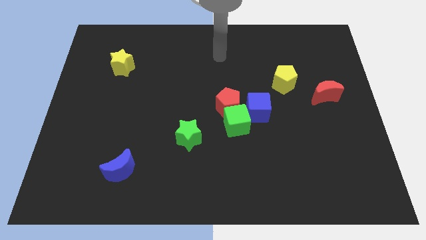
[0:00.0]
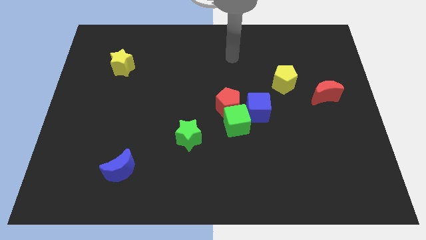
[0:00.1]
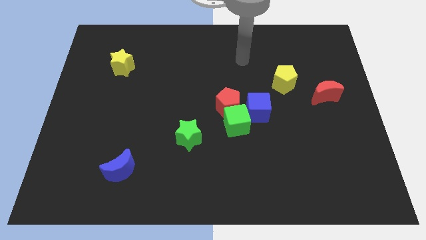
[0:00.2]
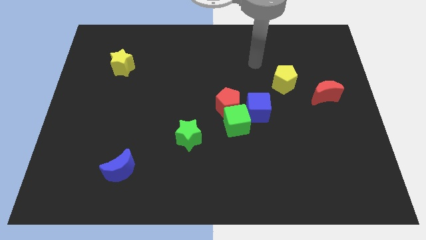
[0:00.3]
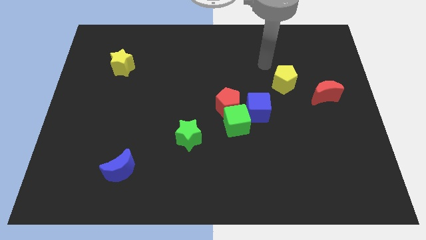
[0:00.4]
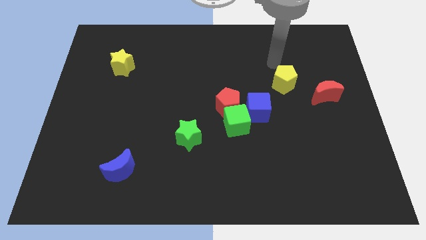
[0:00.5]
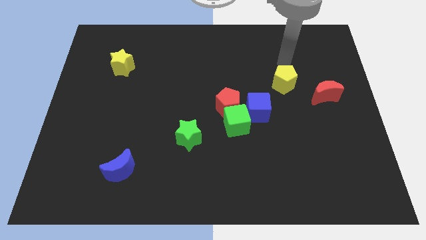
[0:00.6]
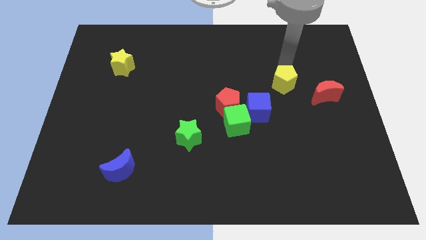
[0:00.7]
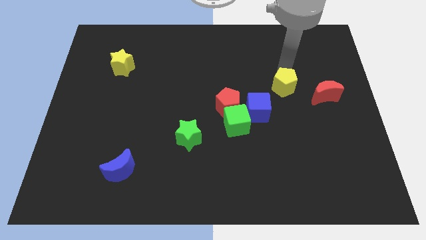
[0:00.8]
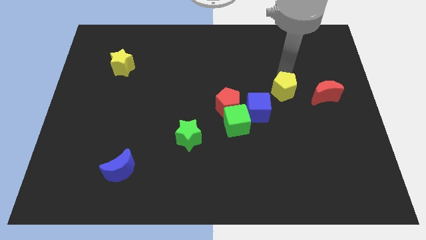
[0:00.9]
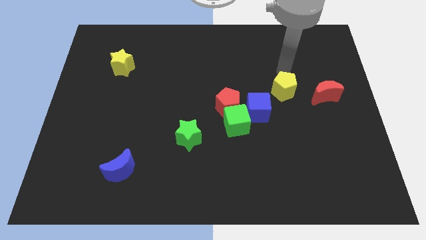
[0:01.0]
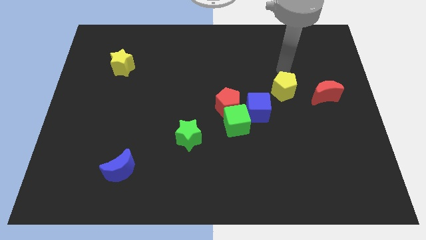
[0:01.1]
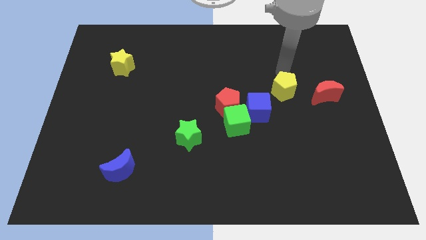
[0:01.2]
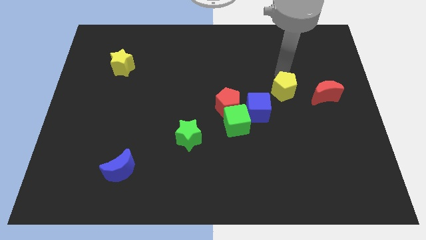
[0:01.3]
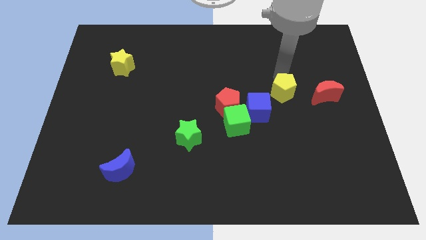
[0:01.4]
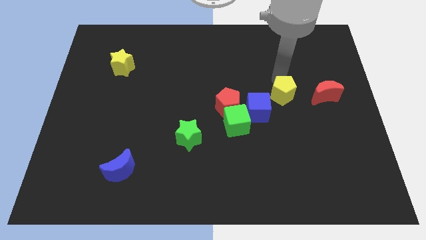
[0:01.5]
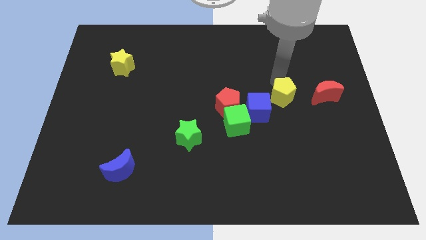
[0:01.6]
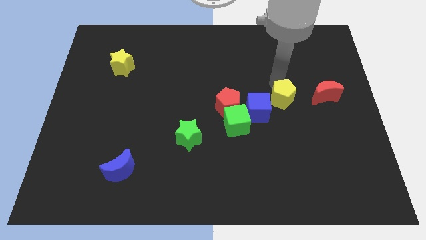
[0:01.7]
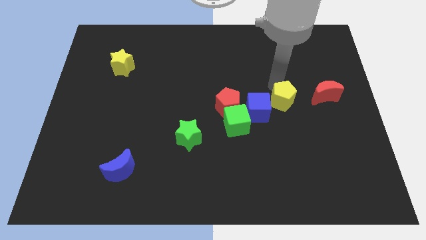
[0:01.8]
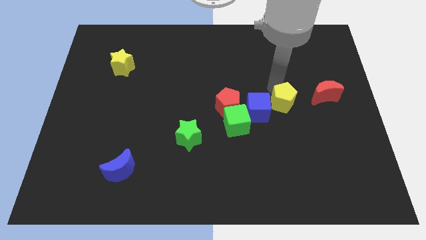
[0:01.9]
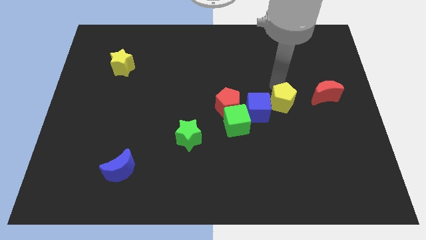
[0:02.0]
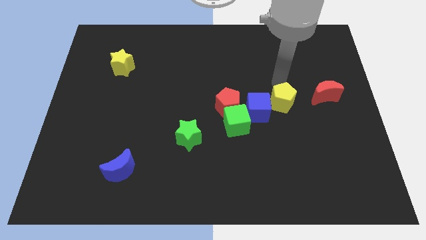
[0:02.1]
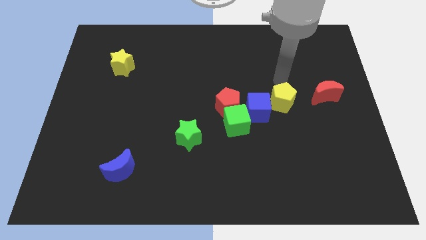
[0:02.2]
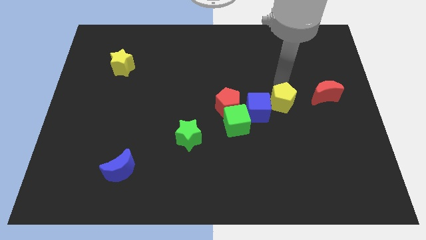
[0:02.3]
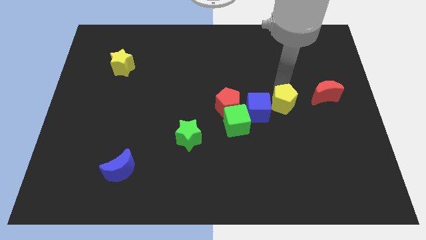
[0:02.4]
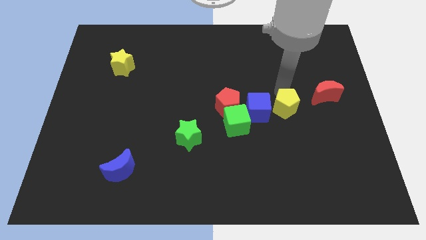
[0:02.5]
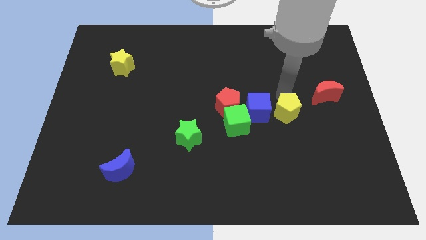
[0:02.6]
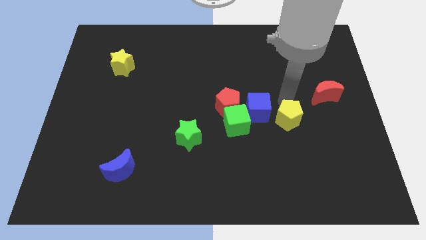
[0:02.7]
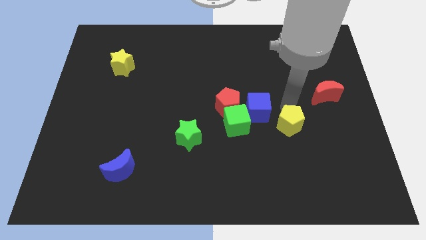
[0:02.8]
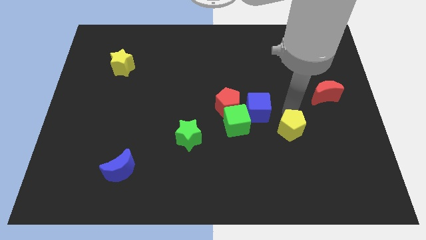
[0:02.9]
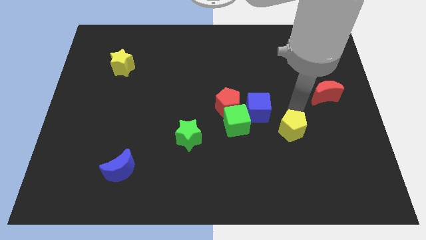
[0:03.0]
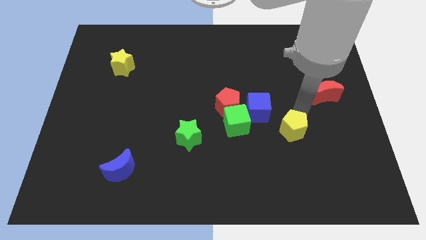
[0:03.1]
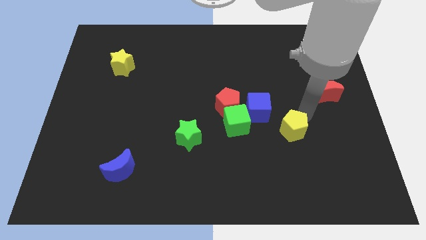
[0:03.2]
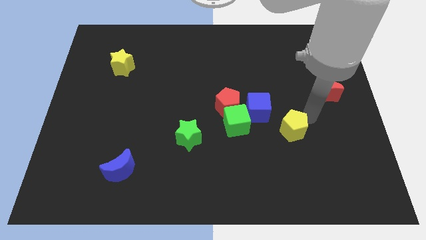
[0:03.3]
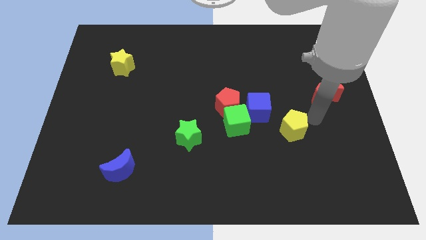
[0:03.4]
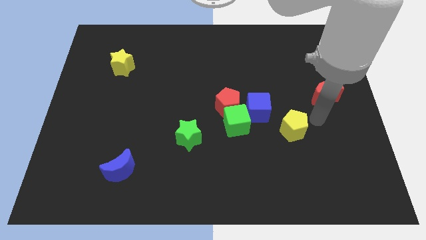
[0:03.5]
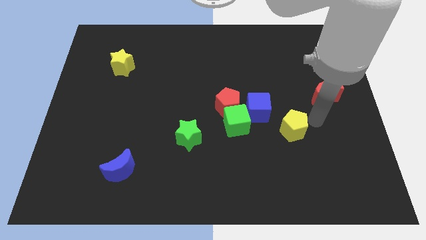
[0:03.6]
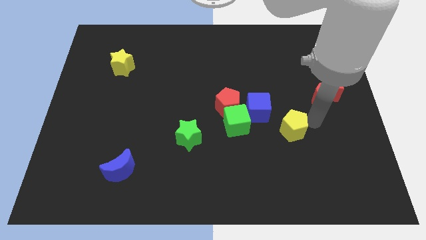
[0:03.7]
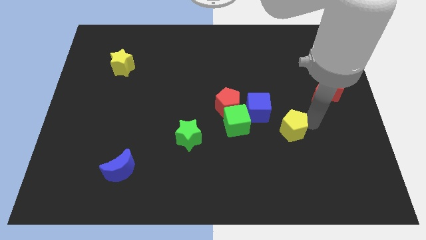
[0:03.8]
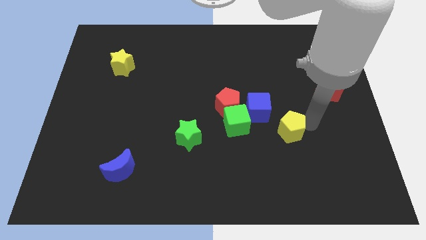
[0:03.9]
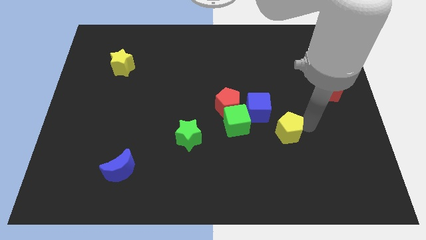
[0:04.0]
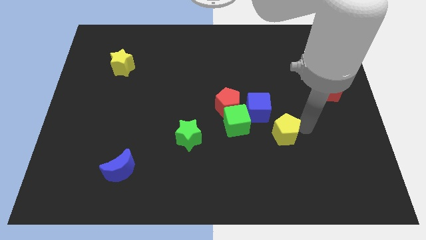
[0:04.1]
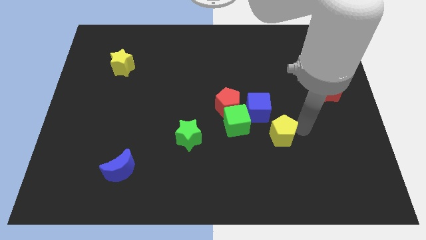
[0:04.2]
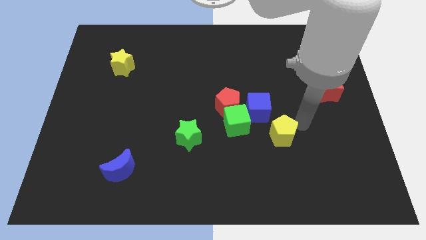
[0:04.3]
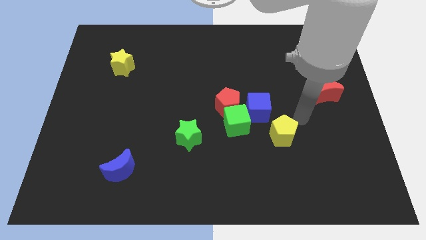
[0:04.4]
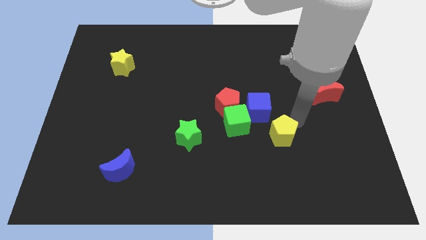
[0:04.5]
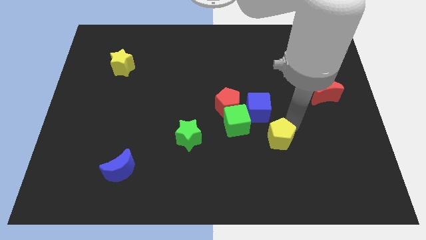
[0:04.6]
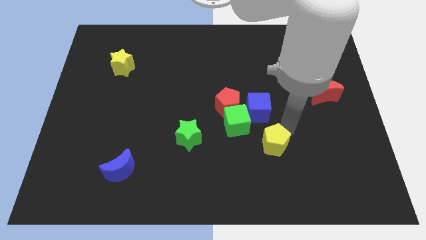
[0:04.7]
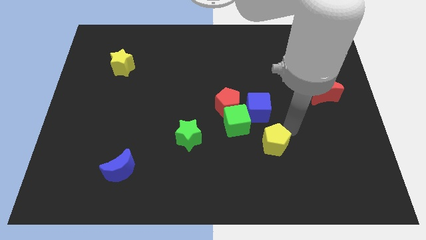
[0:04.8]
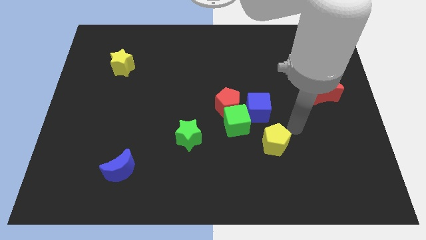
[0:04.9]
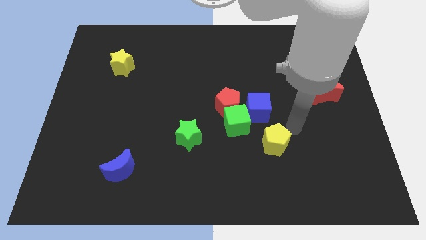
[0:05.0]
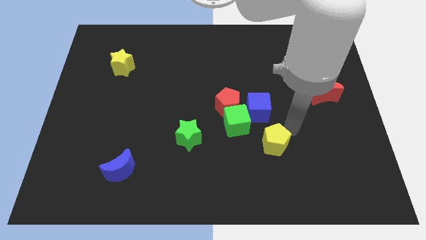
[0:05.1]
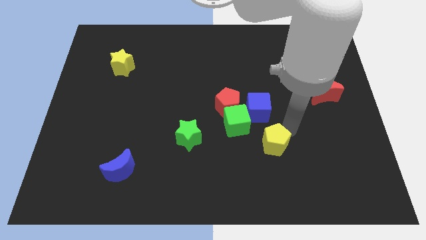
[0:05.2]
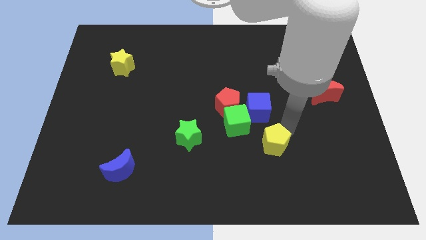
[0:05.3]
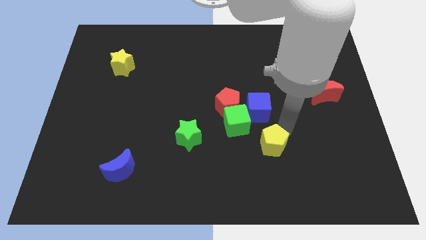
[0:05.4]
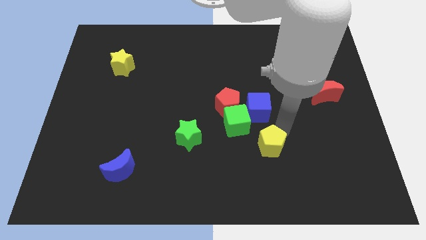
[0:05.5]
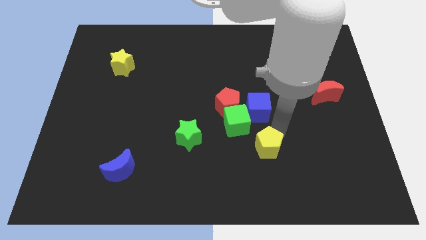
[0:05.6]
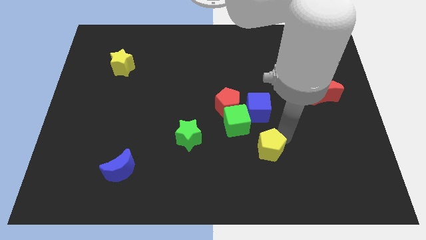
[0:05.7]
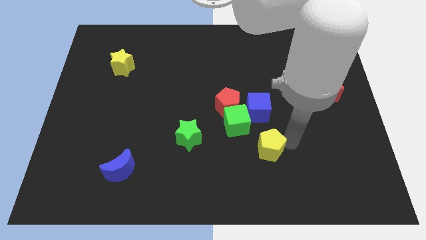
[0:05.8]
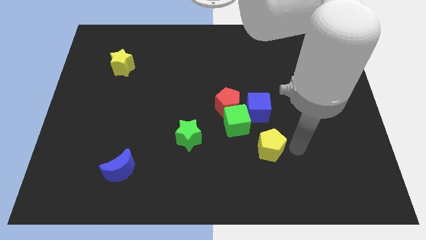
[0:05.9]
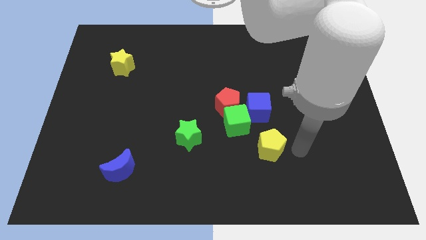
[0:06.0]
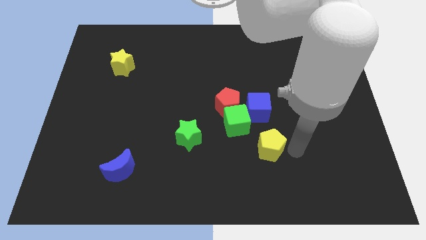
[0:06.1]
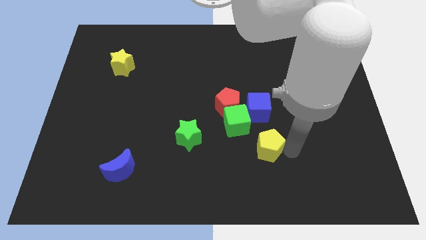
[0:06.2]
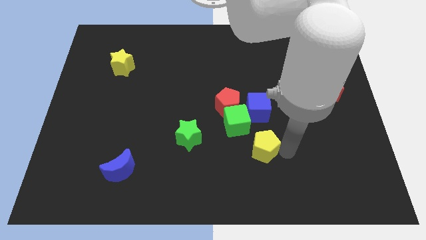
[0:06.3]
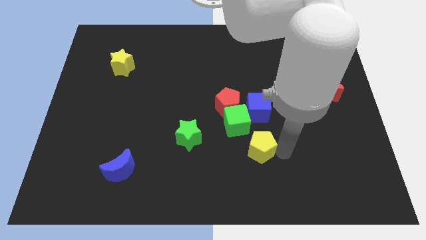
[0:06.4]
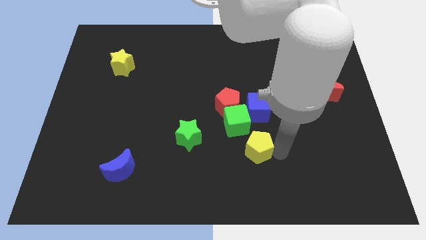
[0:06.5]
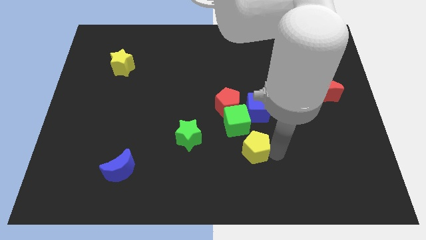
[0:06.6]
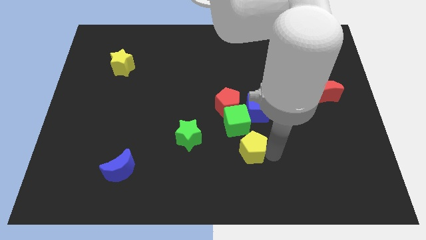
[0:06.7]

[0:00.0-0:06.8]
slide the yellow pentagon below the red pentagon

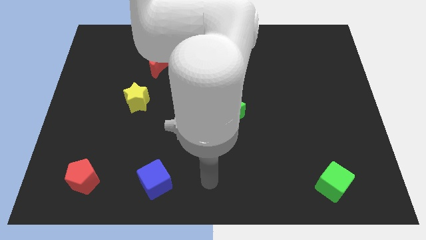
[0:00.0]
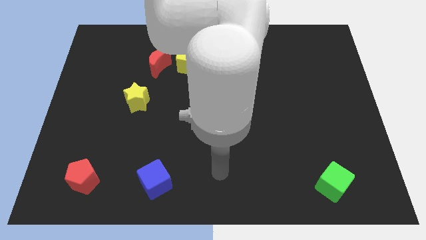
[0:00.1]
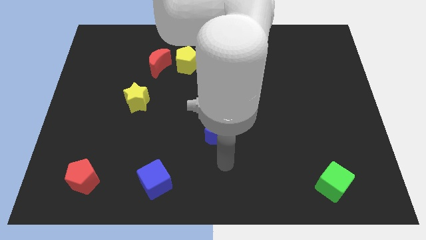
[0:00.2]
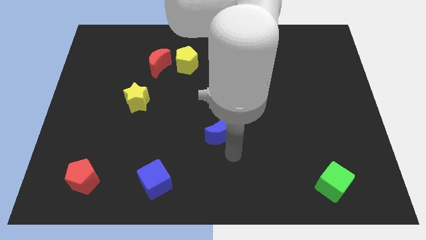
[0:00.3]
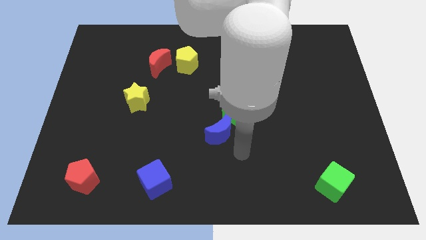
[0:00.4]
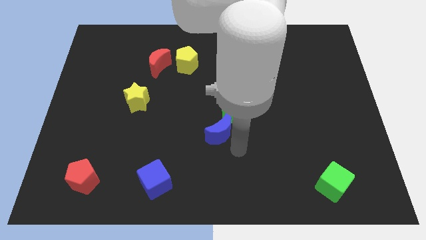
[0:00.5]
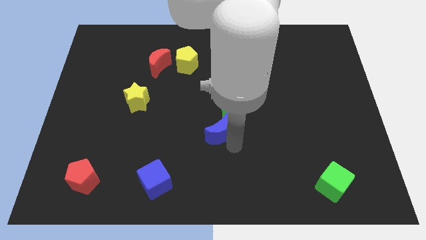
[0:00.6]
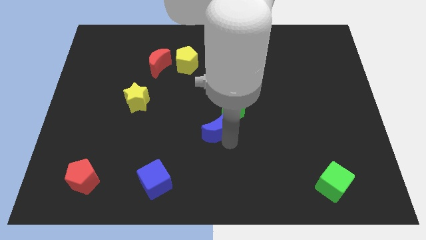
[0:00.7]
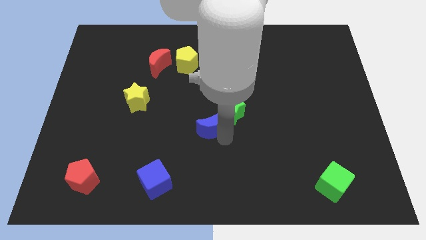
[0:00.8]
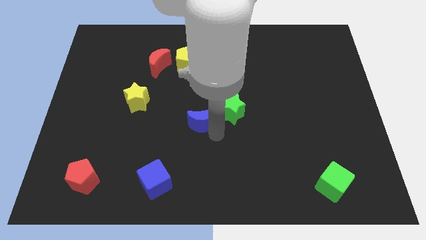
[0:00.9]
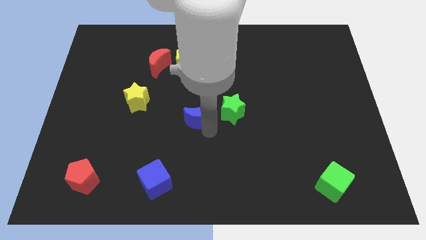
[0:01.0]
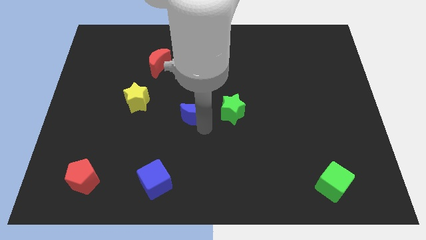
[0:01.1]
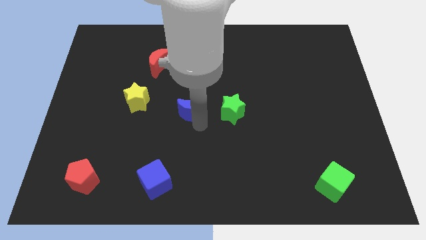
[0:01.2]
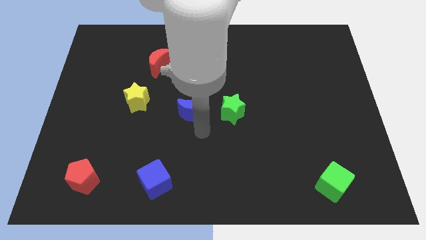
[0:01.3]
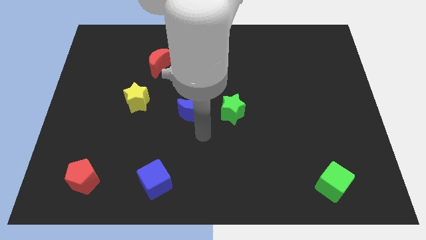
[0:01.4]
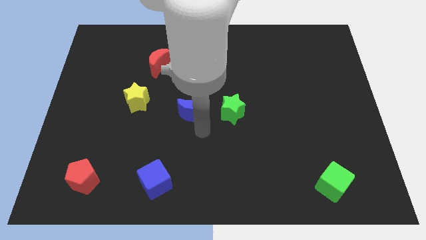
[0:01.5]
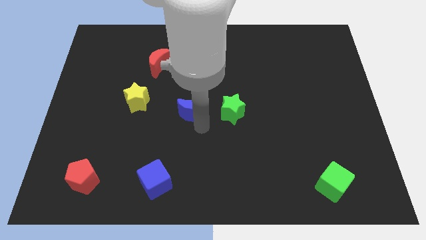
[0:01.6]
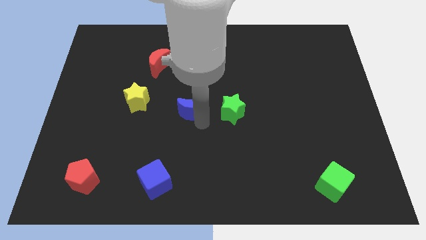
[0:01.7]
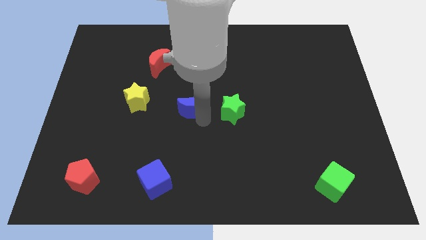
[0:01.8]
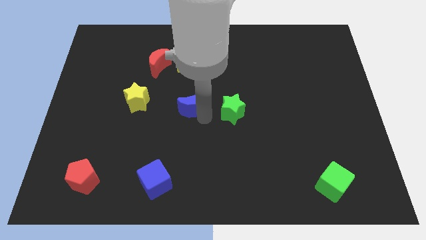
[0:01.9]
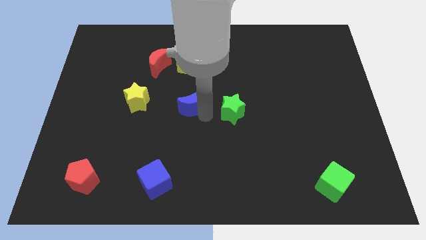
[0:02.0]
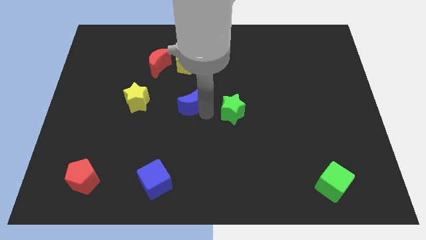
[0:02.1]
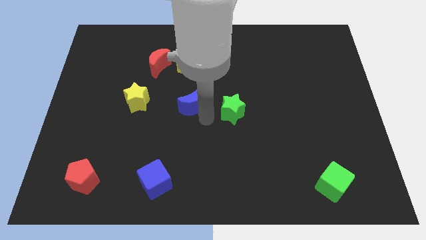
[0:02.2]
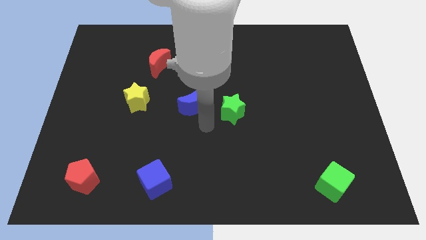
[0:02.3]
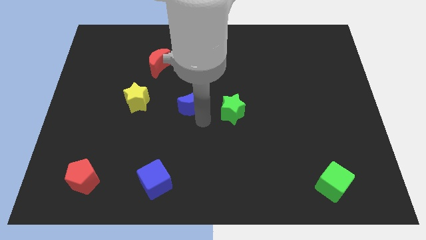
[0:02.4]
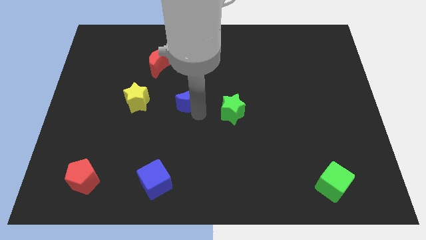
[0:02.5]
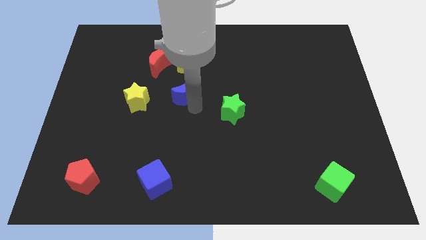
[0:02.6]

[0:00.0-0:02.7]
slide the blue moon to the bottom right side of the red moon
